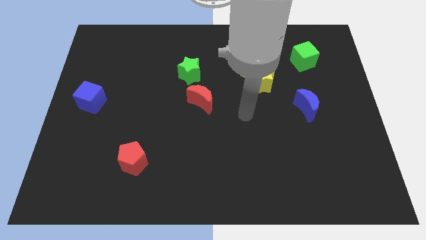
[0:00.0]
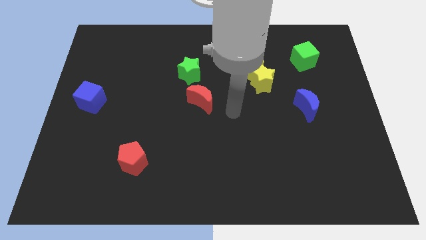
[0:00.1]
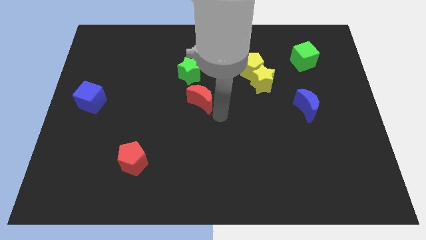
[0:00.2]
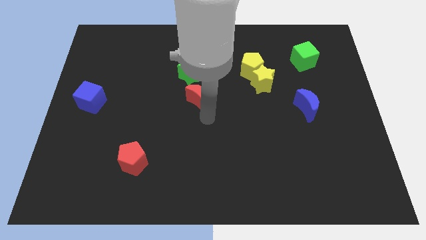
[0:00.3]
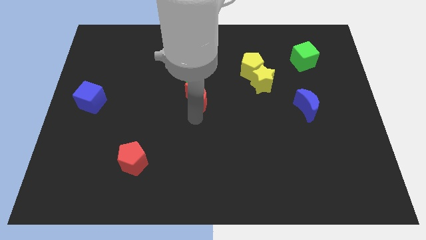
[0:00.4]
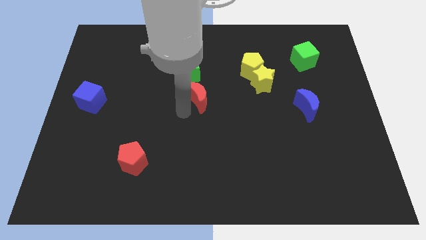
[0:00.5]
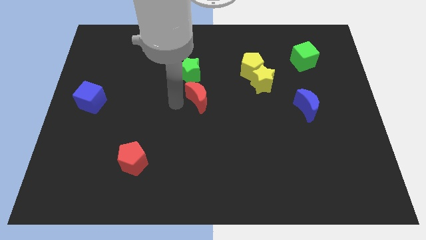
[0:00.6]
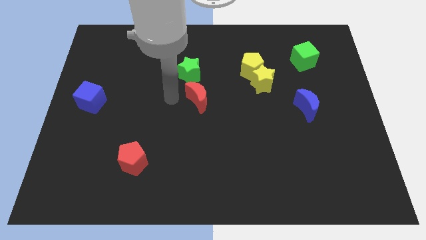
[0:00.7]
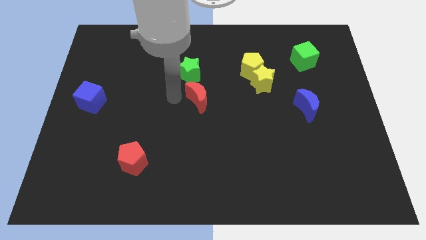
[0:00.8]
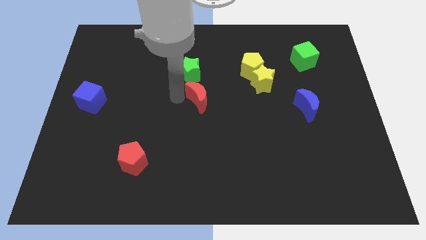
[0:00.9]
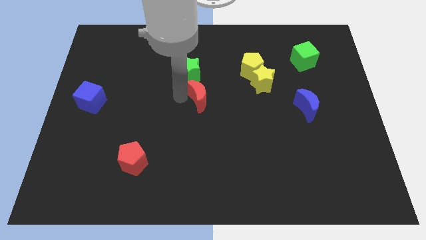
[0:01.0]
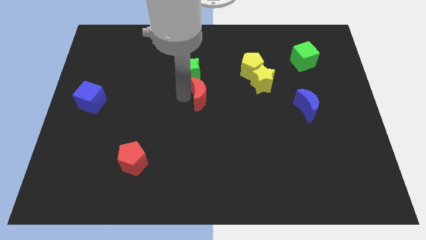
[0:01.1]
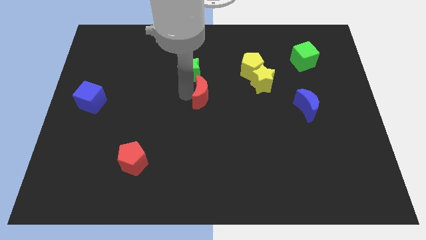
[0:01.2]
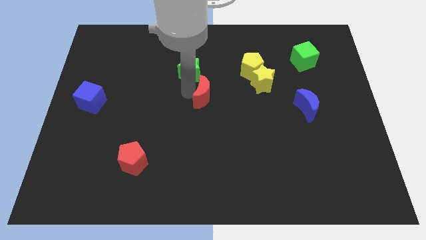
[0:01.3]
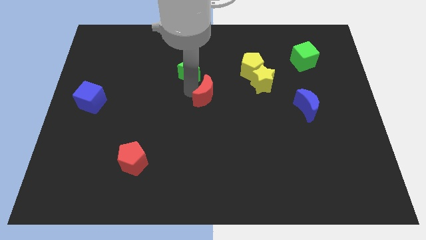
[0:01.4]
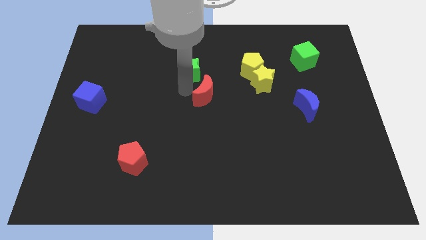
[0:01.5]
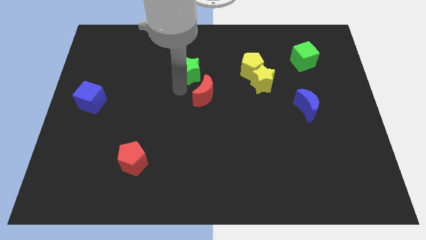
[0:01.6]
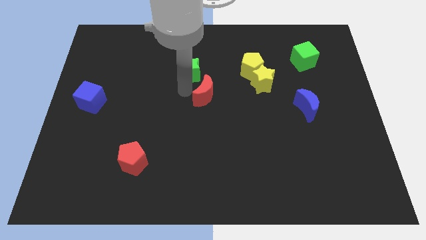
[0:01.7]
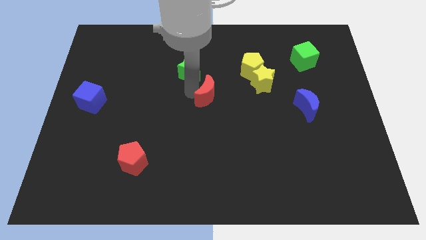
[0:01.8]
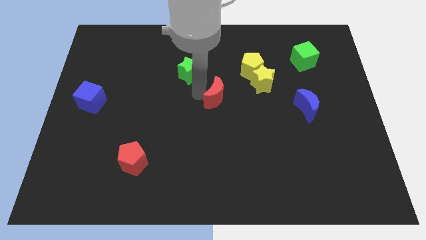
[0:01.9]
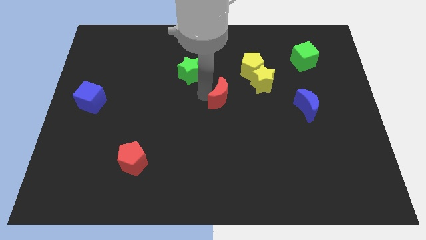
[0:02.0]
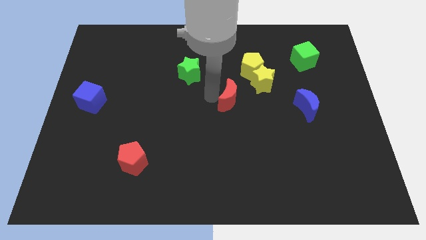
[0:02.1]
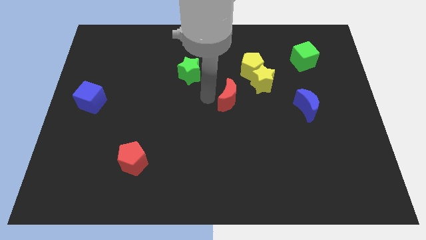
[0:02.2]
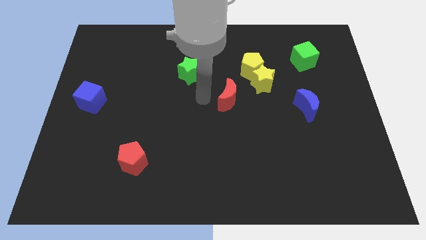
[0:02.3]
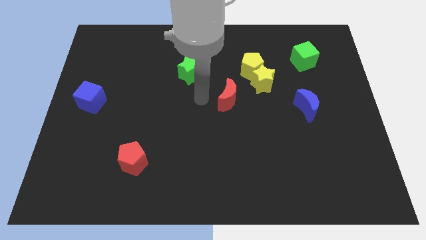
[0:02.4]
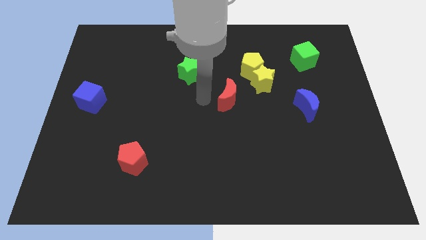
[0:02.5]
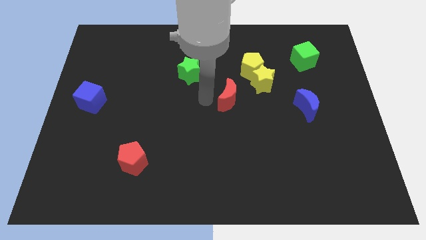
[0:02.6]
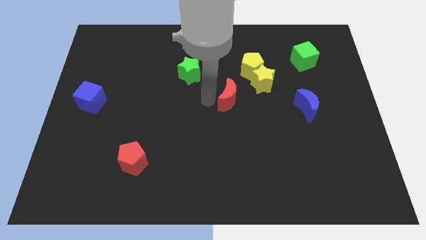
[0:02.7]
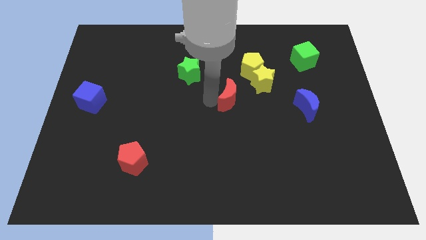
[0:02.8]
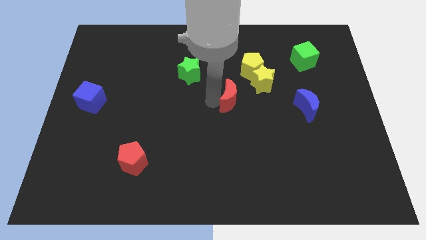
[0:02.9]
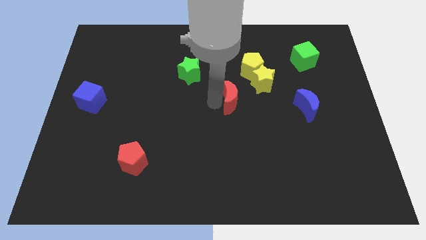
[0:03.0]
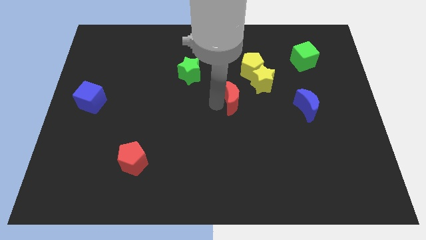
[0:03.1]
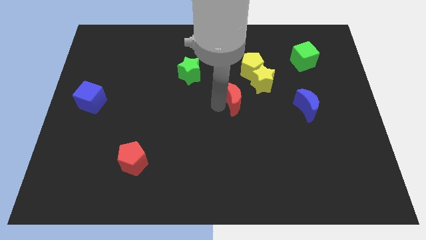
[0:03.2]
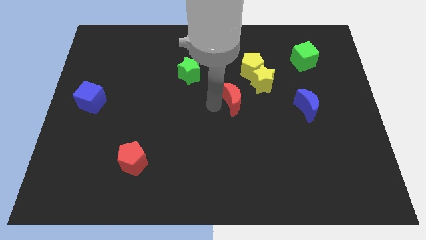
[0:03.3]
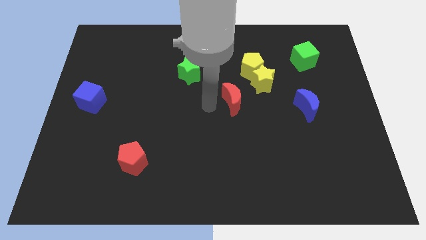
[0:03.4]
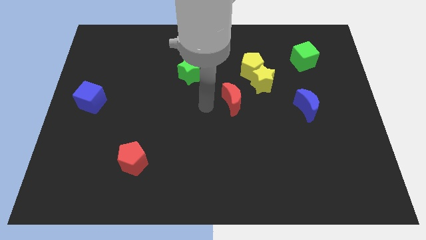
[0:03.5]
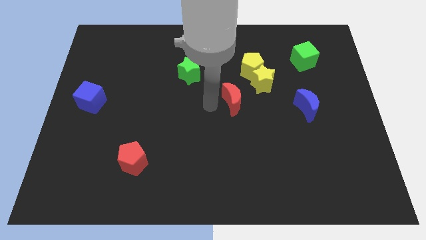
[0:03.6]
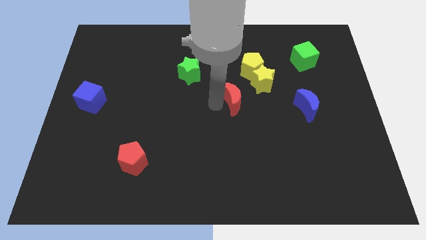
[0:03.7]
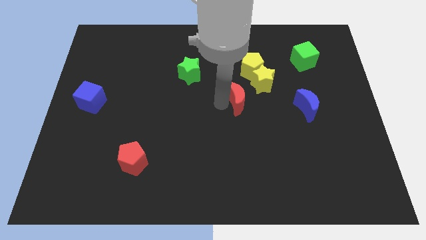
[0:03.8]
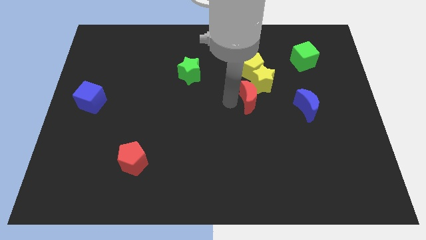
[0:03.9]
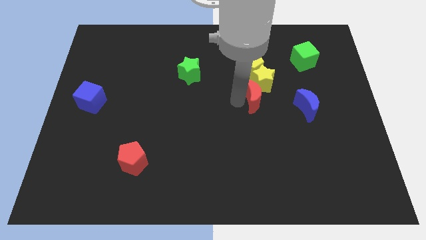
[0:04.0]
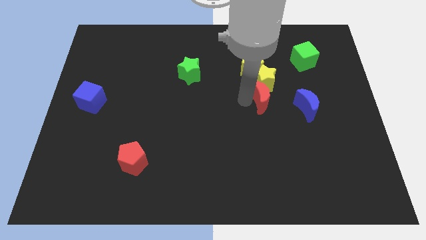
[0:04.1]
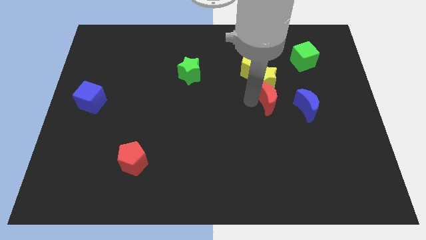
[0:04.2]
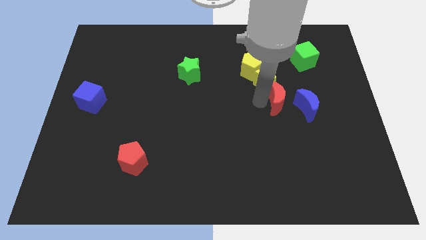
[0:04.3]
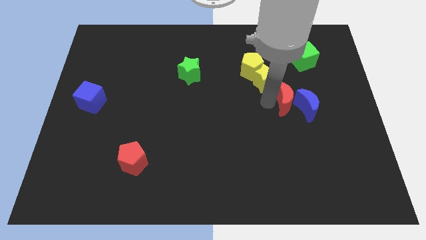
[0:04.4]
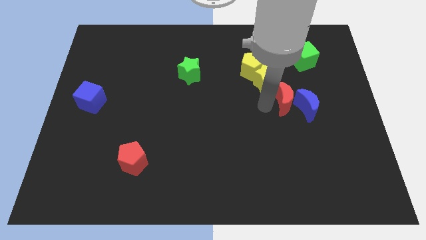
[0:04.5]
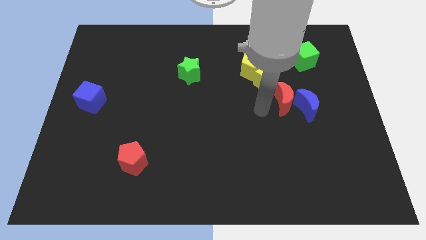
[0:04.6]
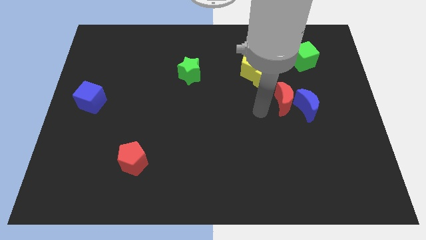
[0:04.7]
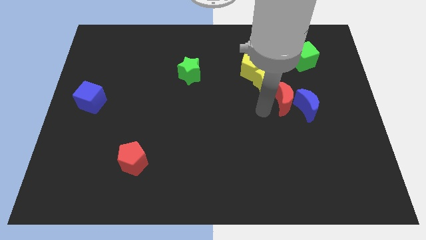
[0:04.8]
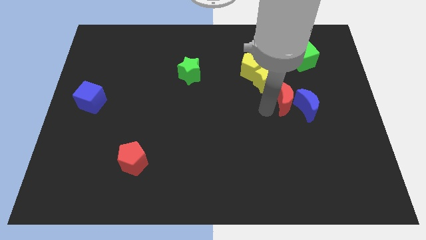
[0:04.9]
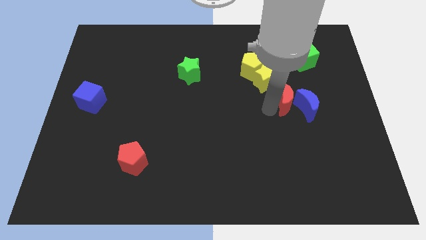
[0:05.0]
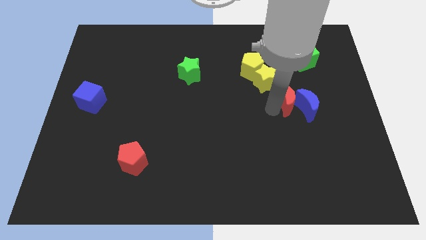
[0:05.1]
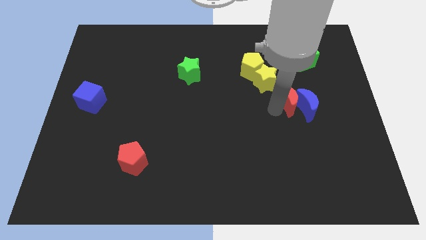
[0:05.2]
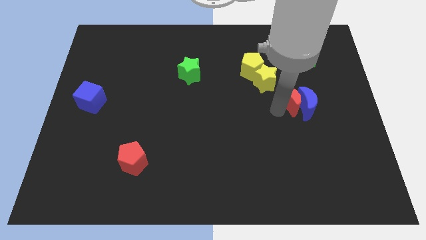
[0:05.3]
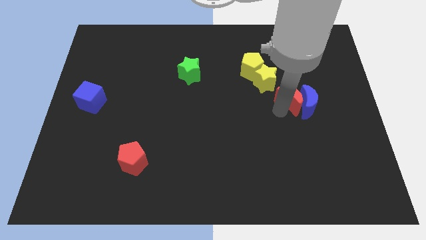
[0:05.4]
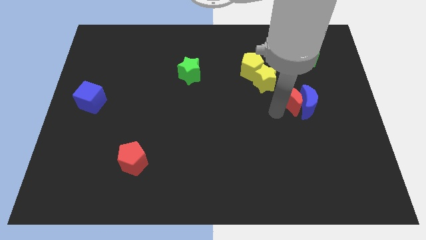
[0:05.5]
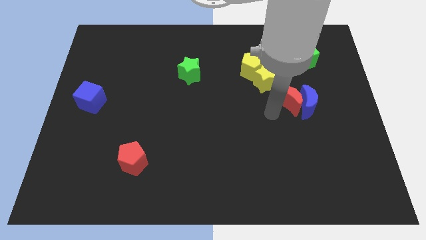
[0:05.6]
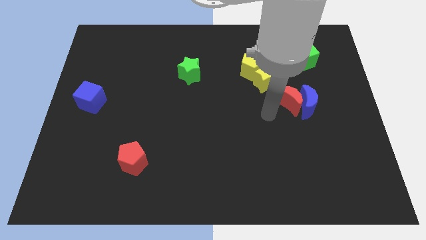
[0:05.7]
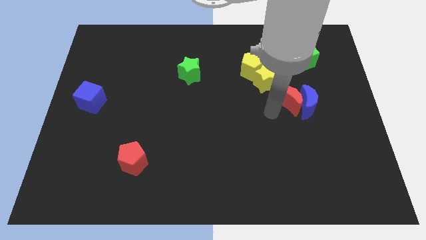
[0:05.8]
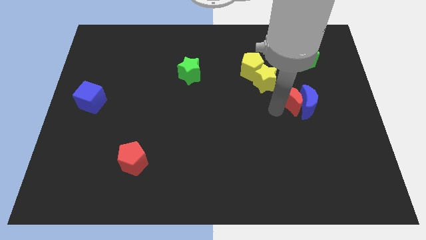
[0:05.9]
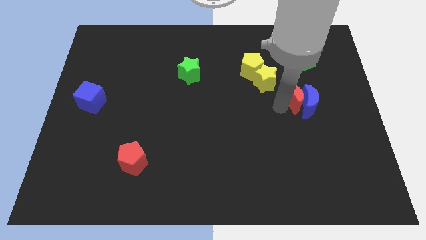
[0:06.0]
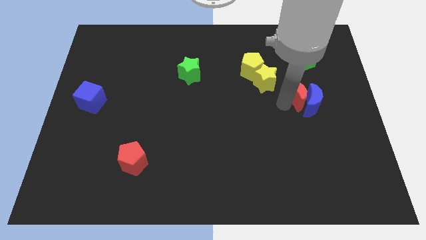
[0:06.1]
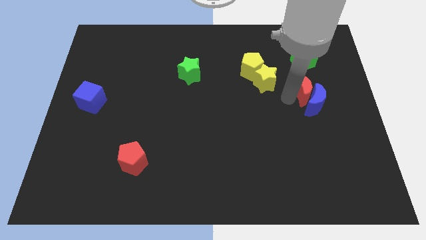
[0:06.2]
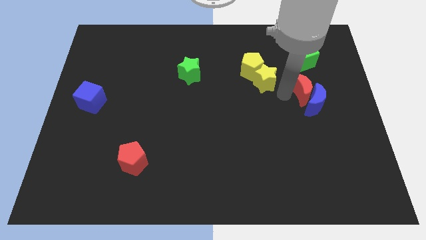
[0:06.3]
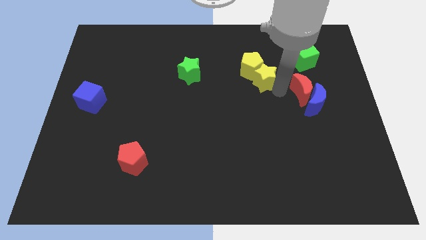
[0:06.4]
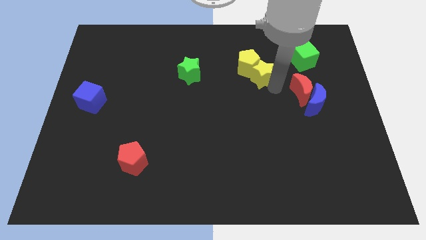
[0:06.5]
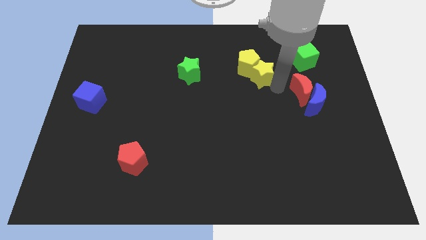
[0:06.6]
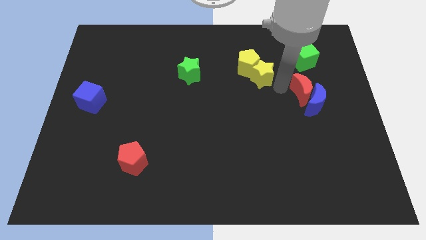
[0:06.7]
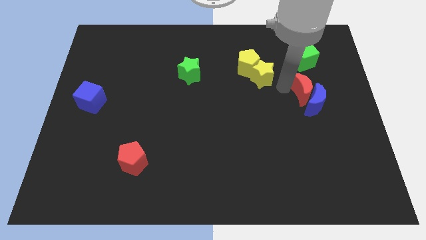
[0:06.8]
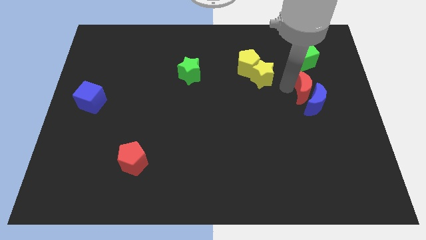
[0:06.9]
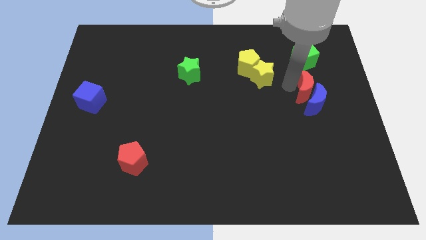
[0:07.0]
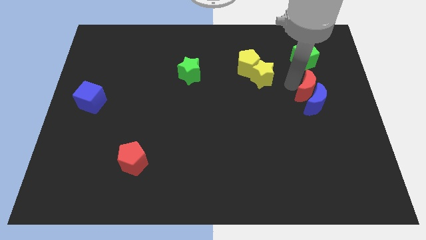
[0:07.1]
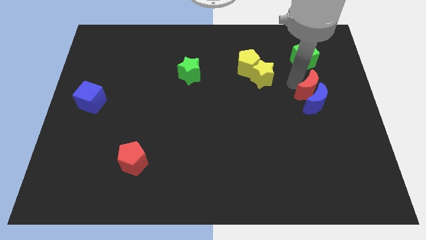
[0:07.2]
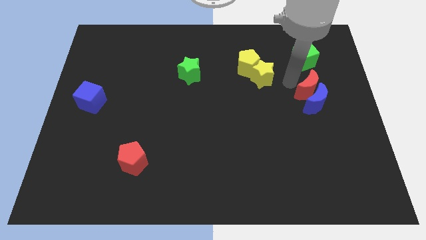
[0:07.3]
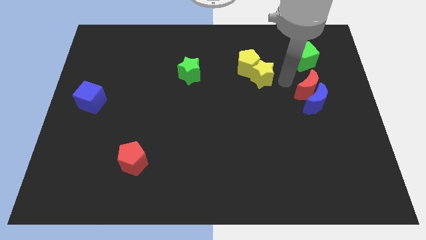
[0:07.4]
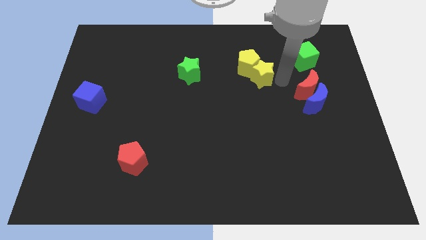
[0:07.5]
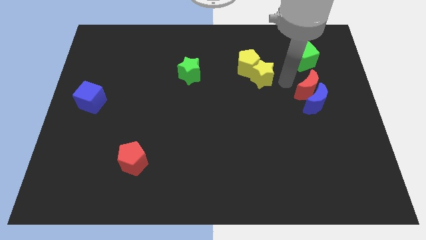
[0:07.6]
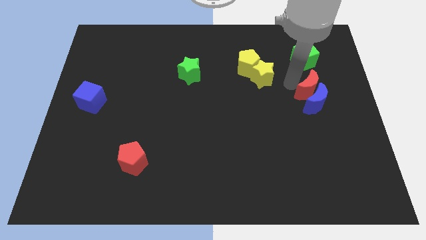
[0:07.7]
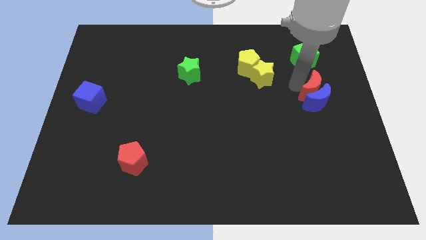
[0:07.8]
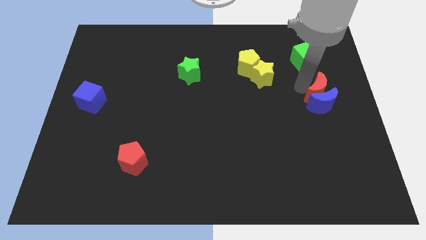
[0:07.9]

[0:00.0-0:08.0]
put the red moon to the right side of the board
